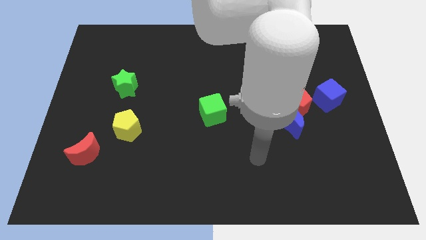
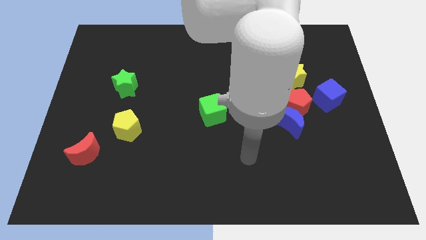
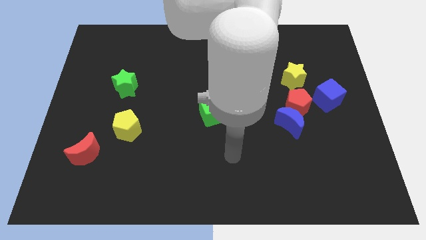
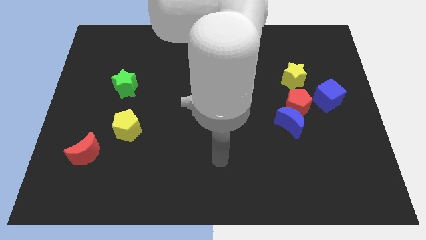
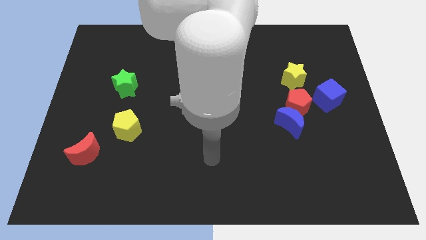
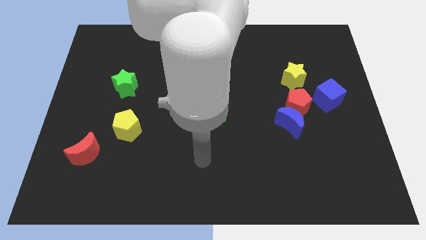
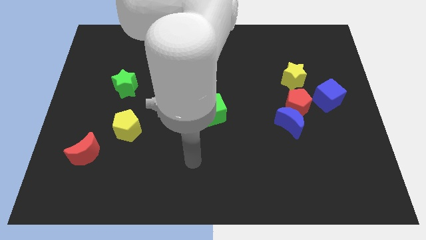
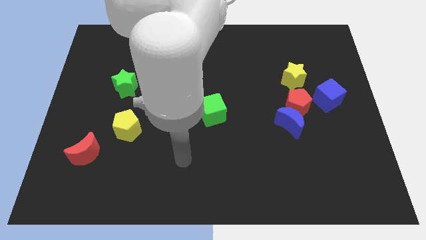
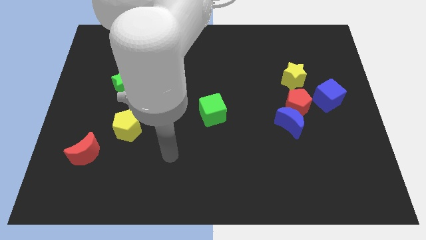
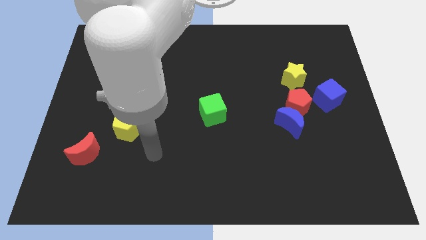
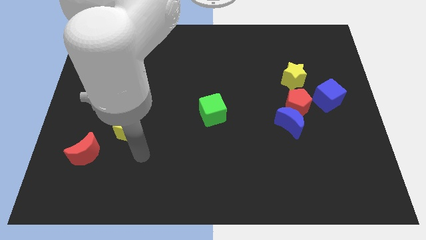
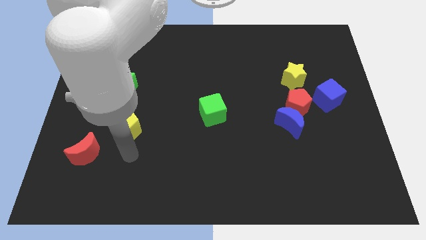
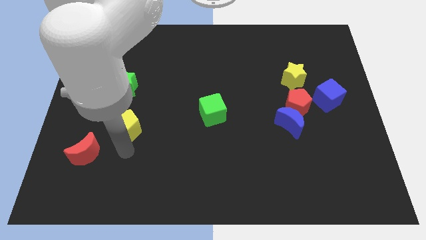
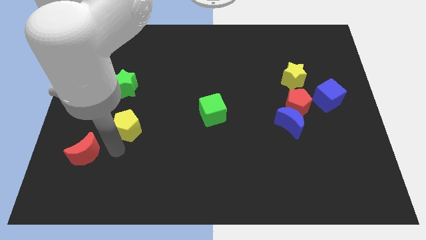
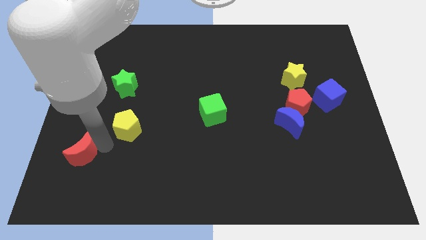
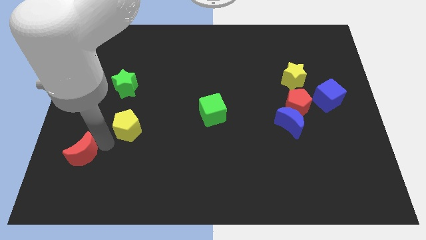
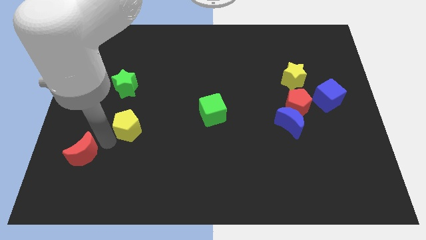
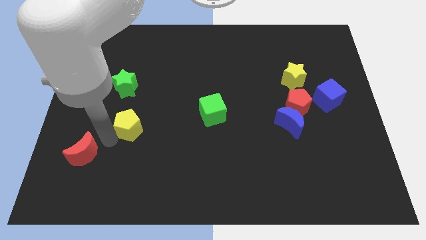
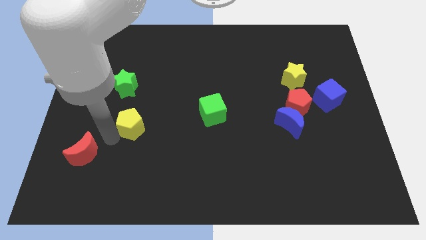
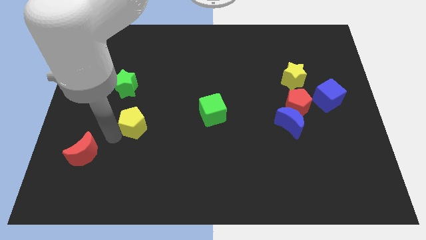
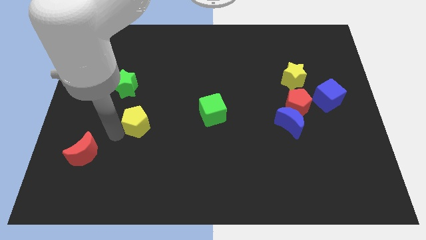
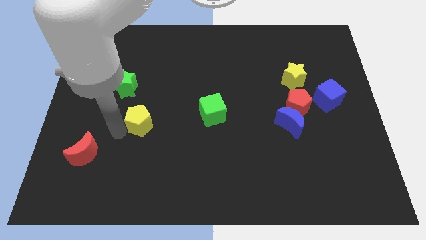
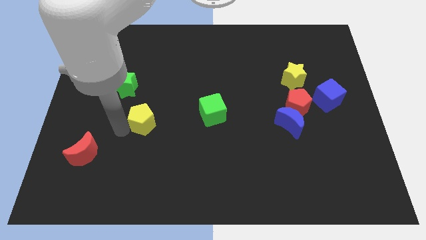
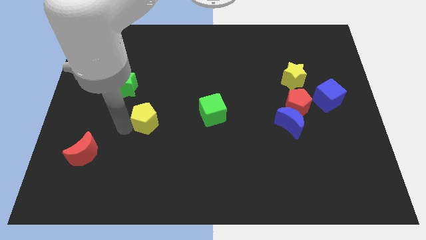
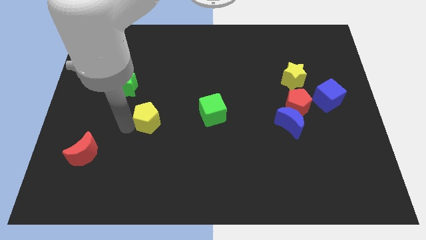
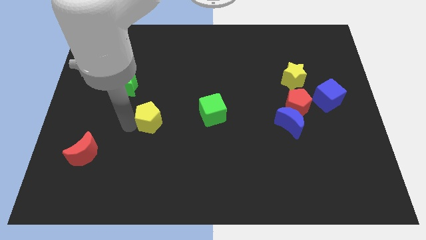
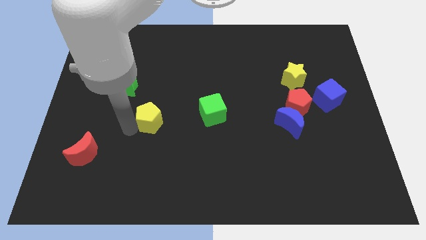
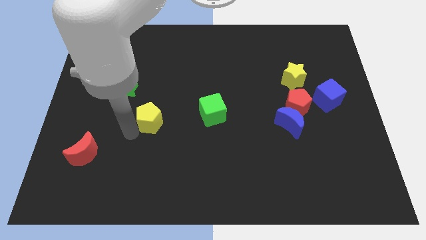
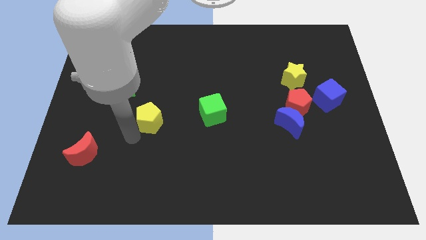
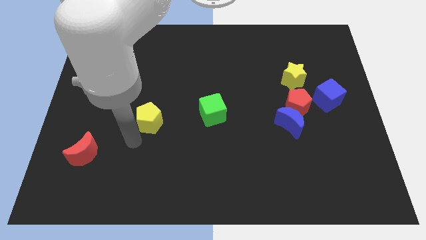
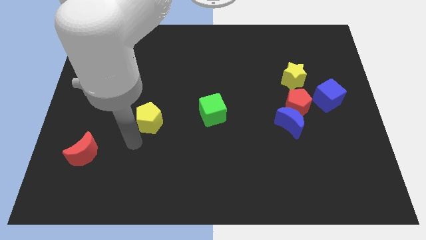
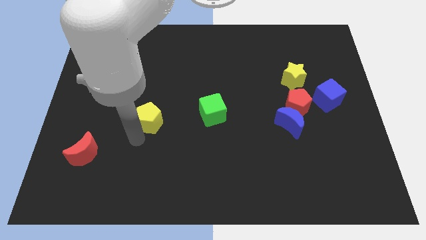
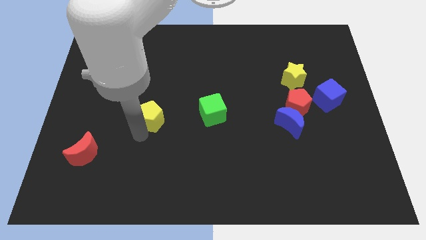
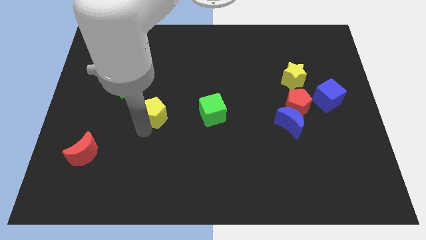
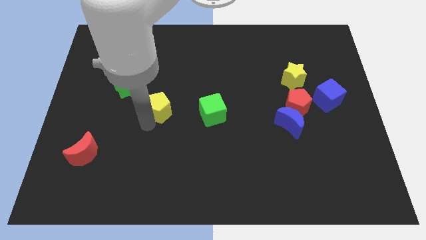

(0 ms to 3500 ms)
push the yellow pentagon slightly diagonally up and right

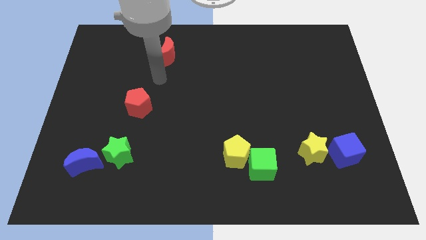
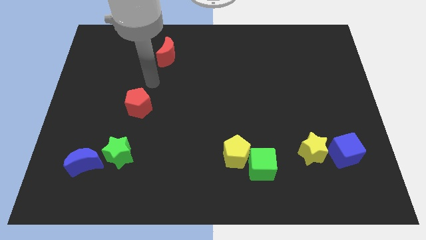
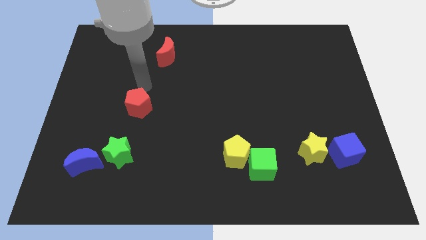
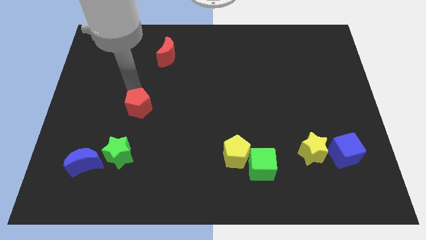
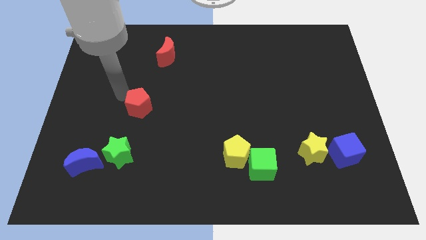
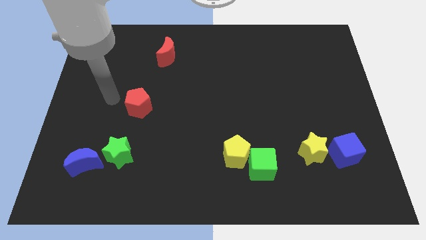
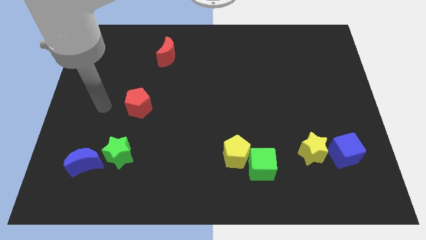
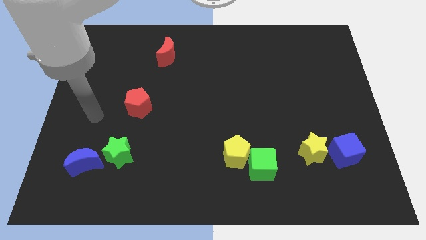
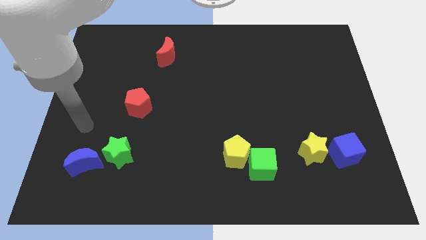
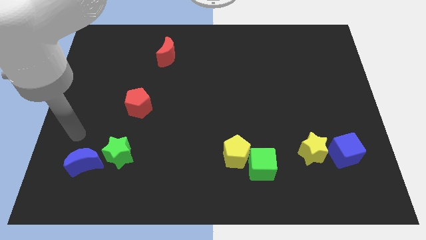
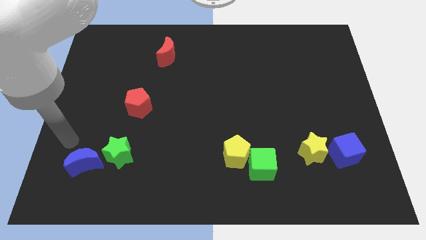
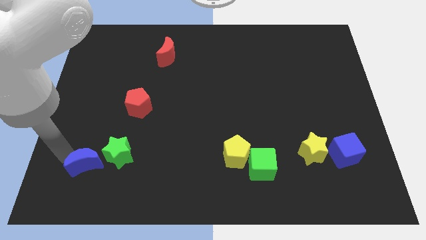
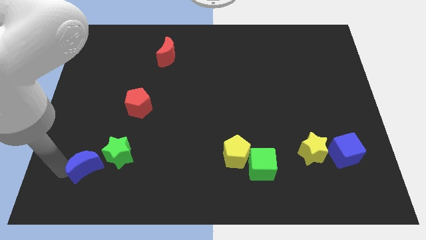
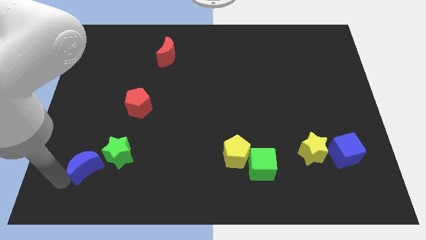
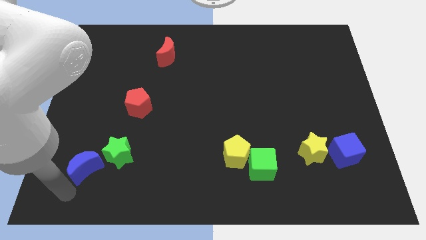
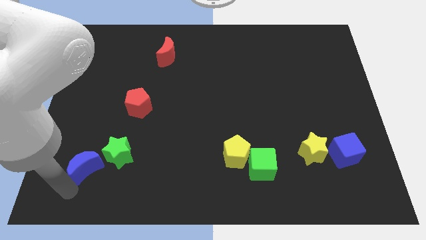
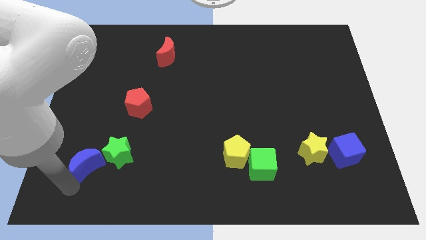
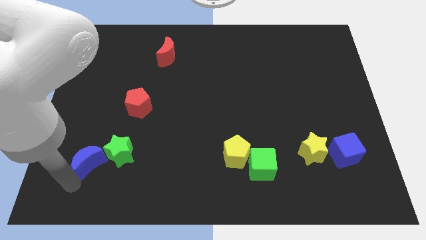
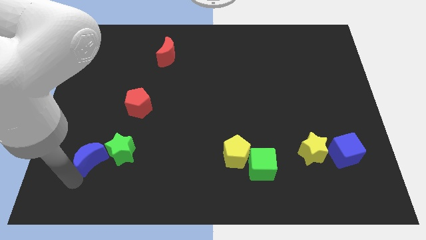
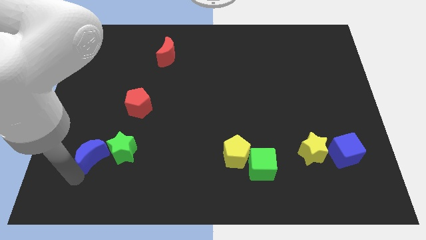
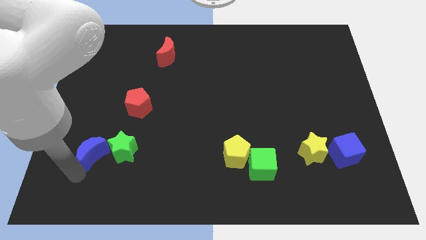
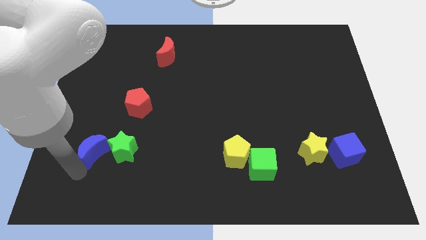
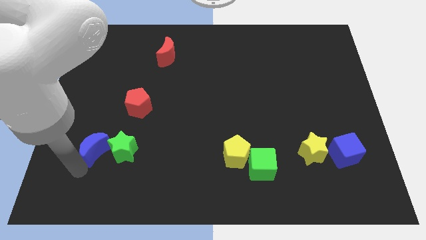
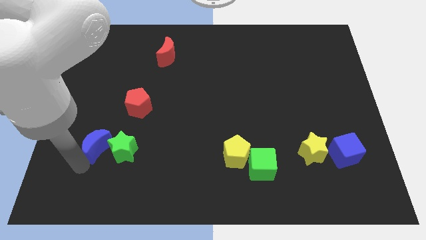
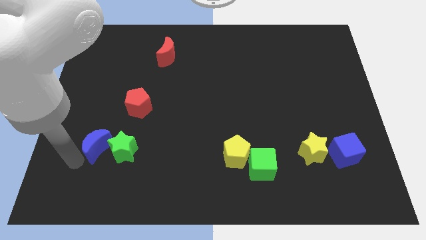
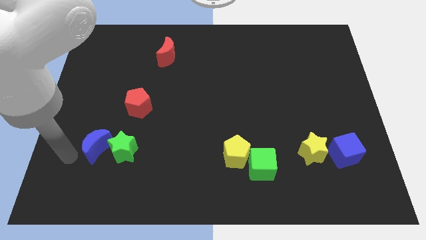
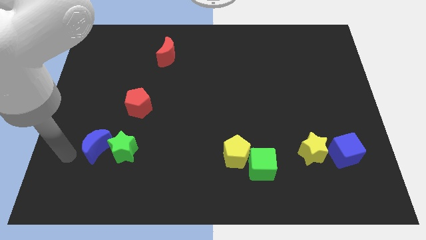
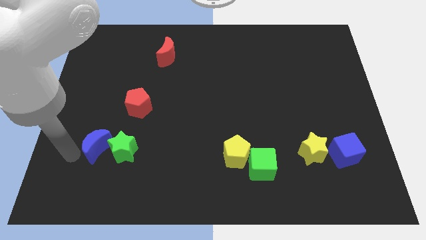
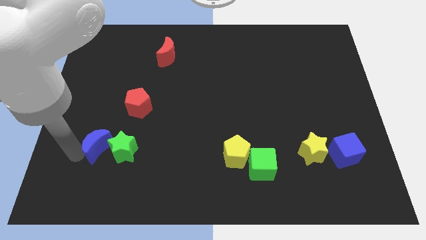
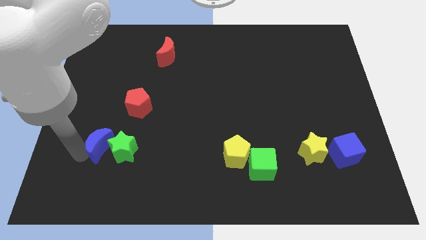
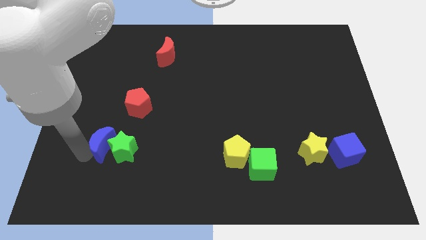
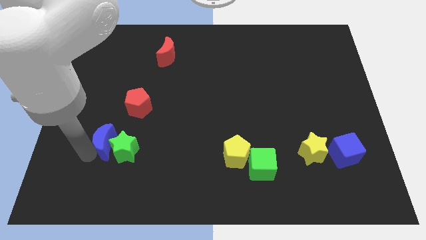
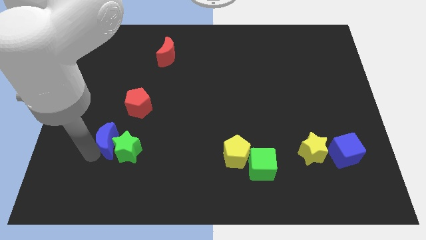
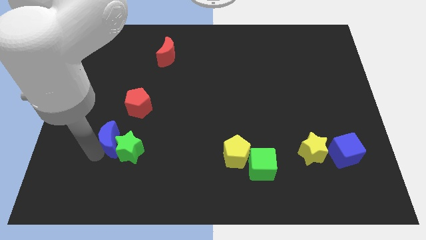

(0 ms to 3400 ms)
push the blue moon up and to the right slightly

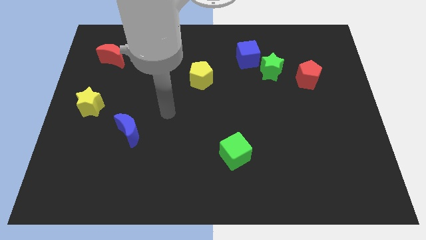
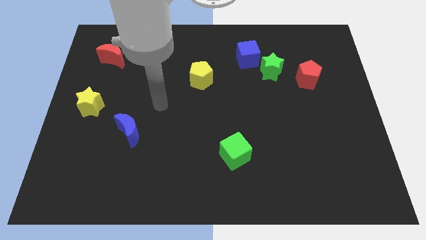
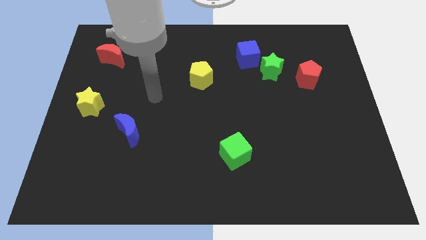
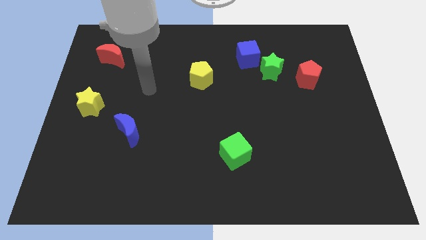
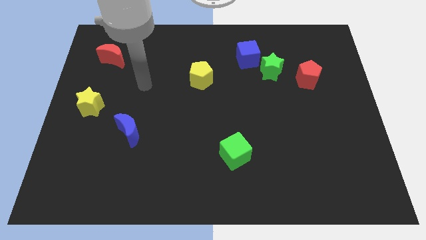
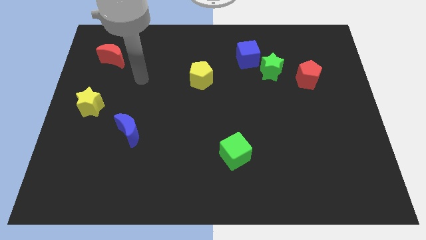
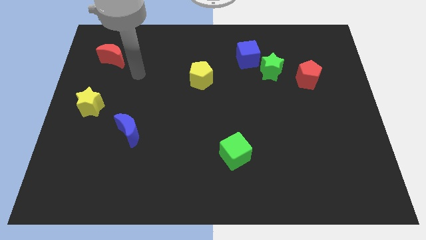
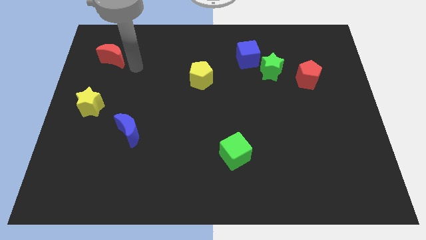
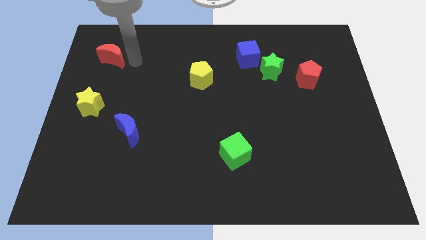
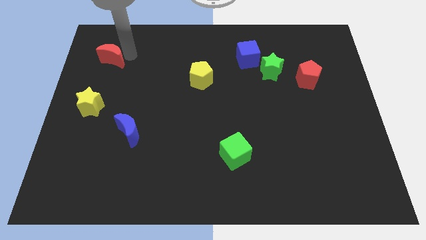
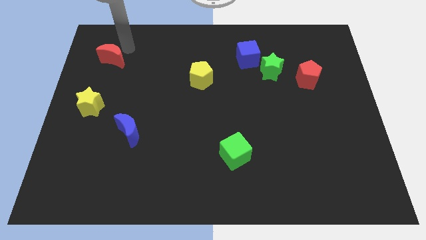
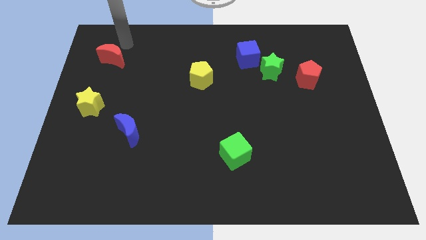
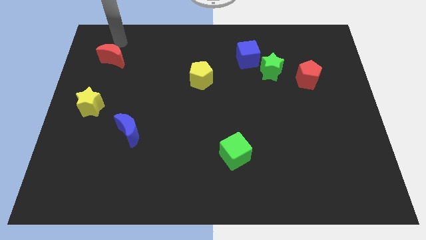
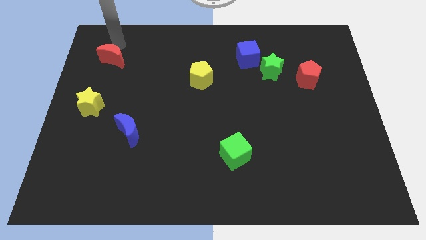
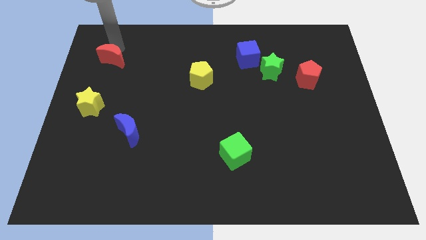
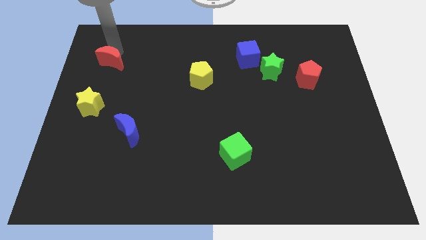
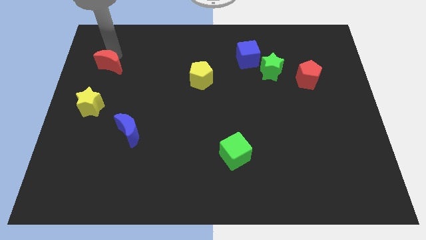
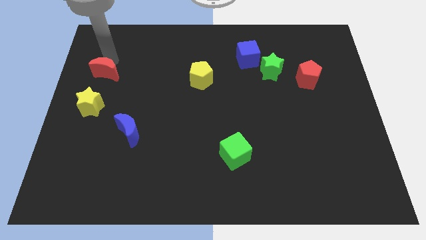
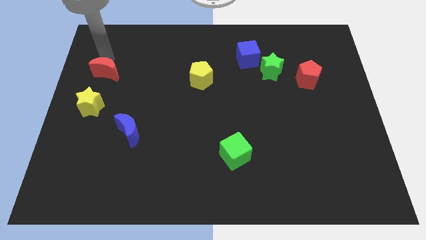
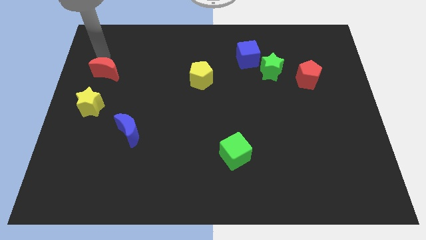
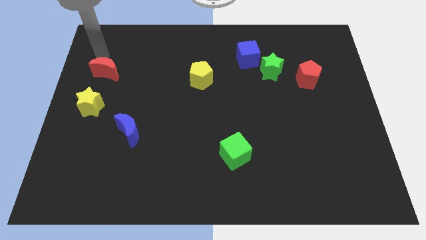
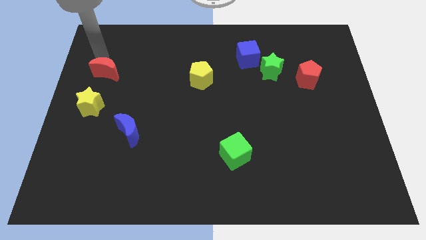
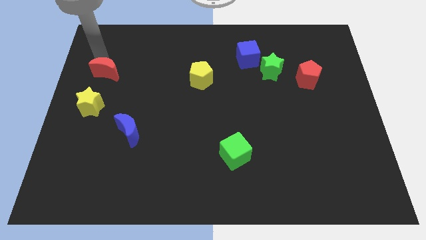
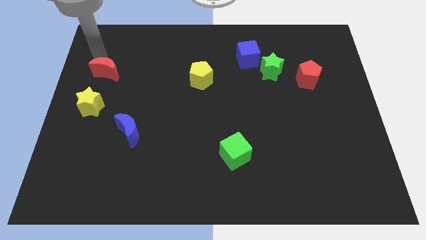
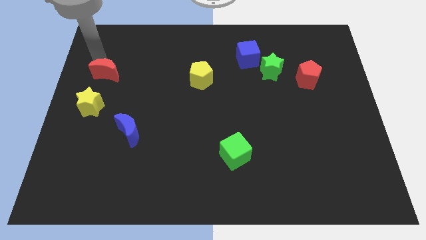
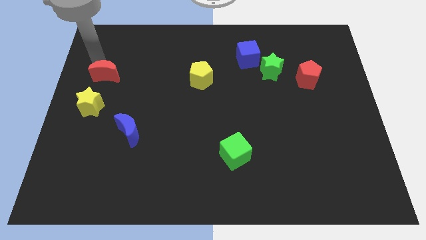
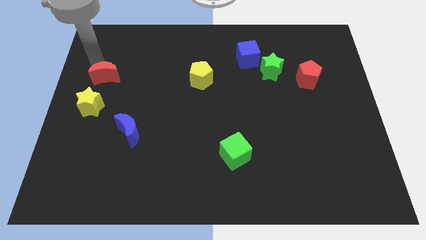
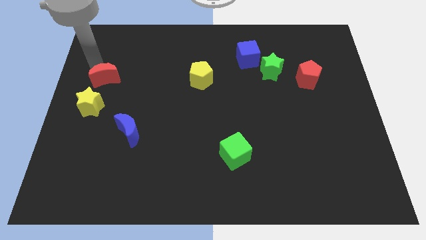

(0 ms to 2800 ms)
move the red moon downwards somewhat
